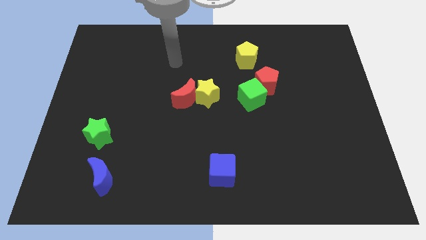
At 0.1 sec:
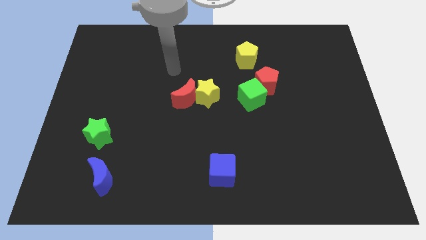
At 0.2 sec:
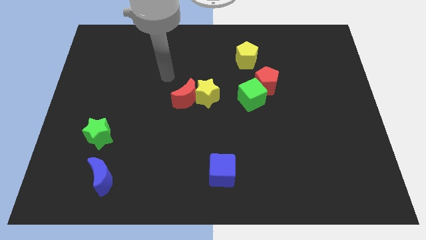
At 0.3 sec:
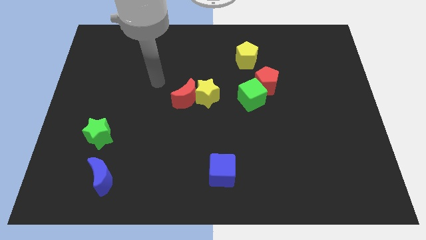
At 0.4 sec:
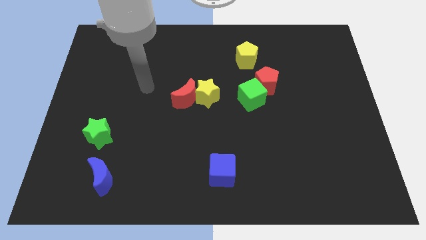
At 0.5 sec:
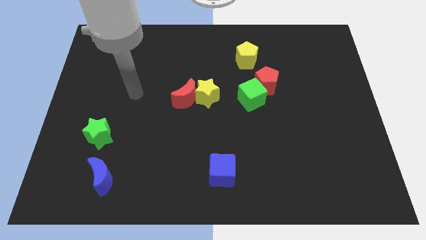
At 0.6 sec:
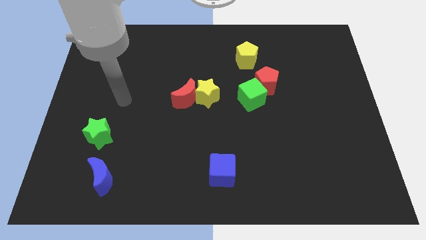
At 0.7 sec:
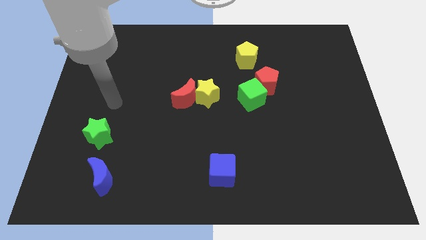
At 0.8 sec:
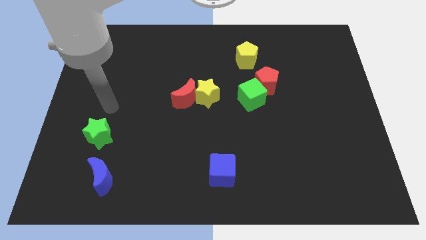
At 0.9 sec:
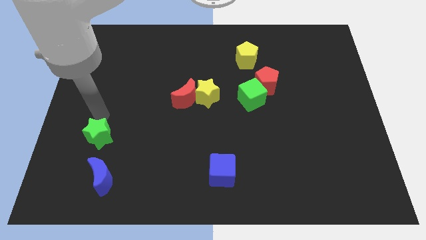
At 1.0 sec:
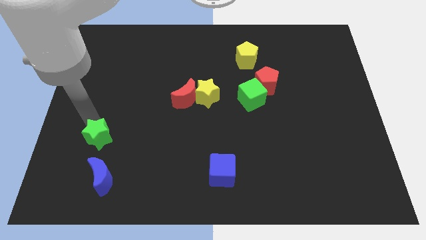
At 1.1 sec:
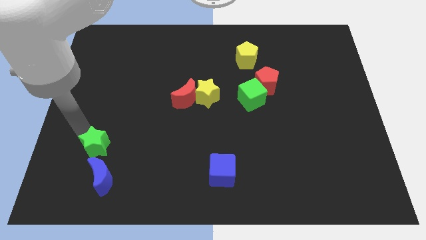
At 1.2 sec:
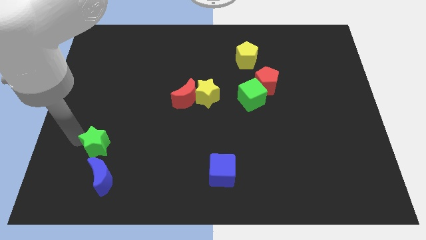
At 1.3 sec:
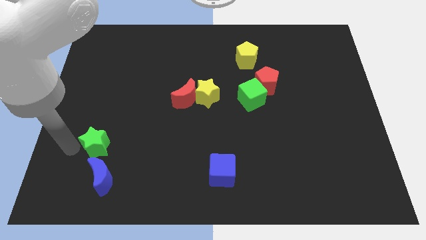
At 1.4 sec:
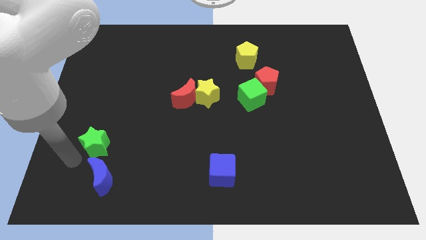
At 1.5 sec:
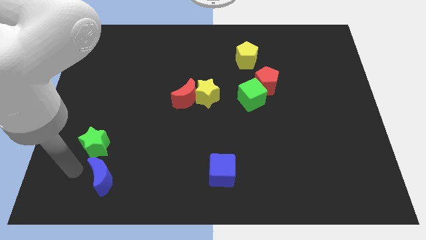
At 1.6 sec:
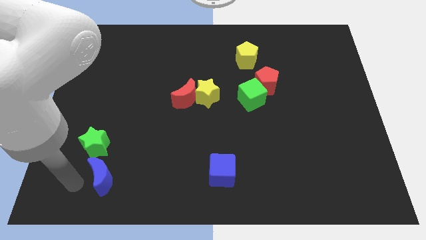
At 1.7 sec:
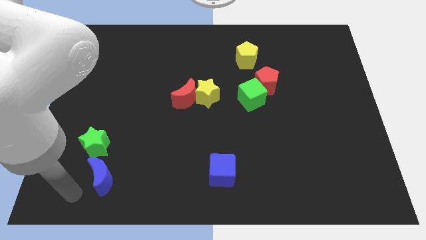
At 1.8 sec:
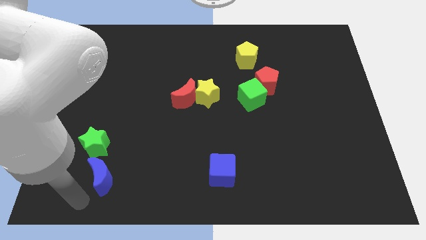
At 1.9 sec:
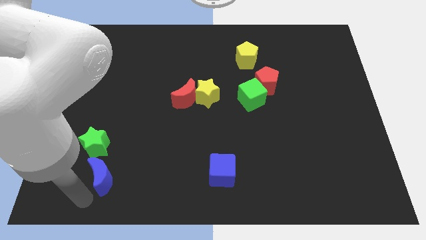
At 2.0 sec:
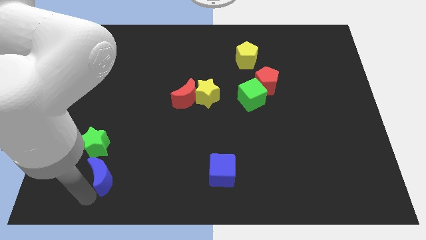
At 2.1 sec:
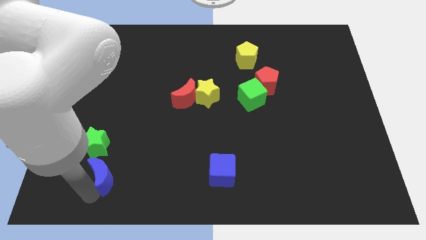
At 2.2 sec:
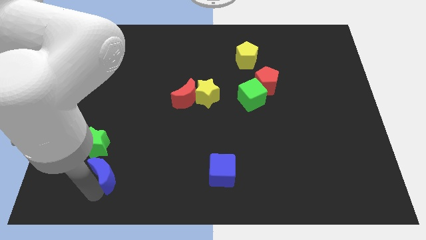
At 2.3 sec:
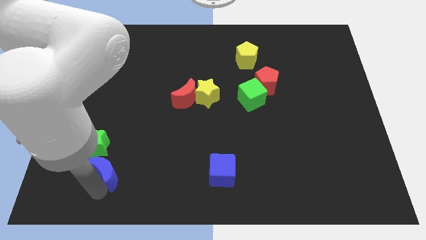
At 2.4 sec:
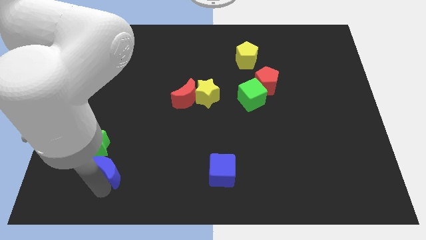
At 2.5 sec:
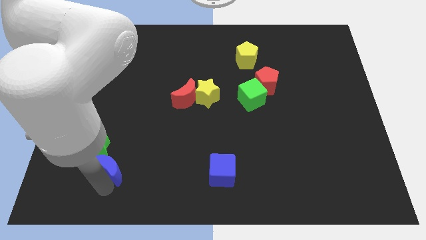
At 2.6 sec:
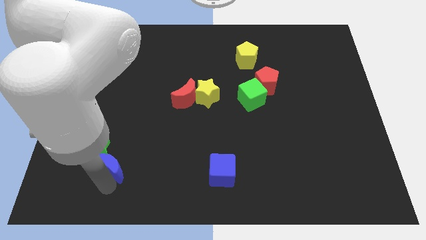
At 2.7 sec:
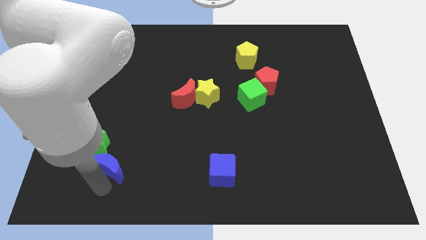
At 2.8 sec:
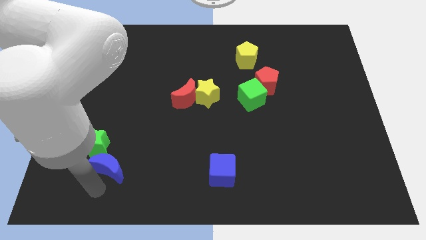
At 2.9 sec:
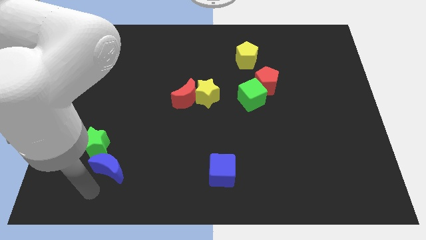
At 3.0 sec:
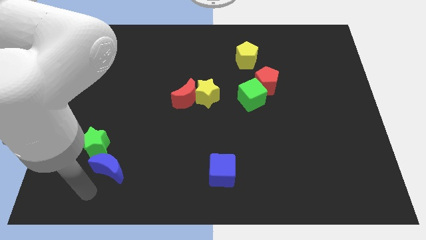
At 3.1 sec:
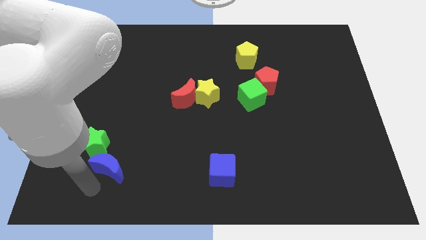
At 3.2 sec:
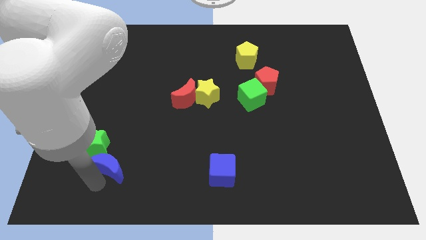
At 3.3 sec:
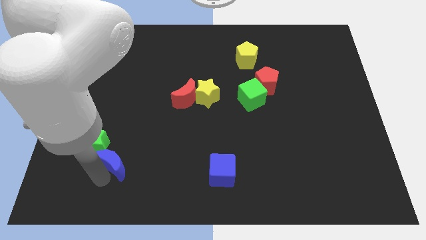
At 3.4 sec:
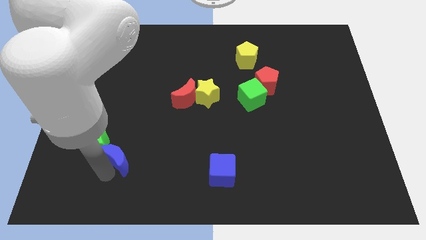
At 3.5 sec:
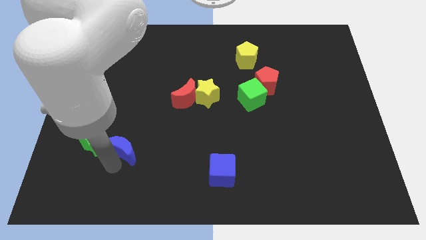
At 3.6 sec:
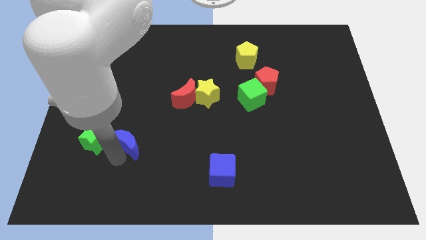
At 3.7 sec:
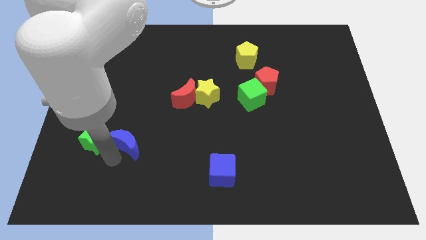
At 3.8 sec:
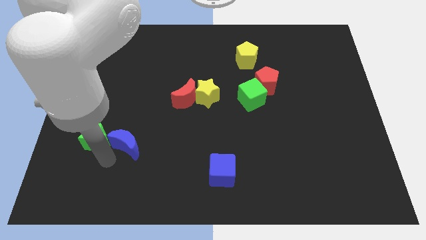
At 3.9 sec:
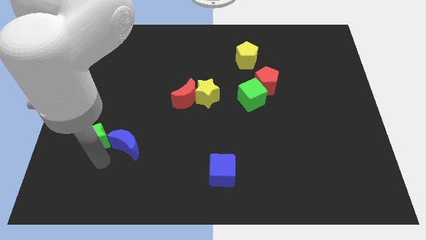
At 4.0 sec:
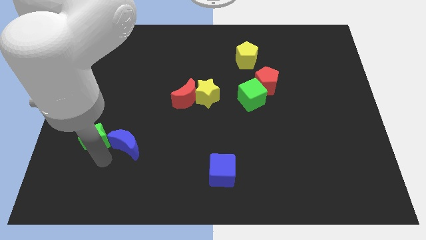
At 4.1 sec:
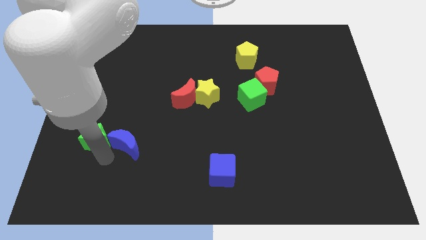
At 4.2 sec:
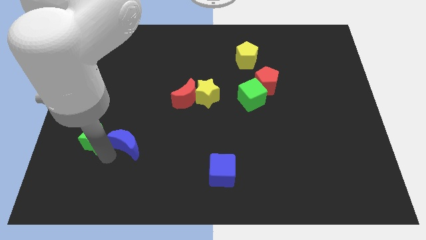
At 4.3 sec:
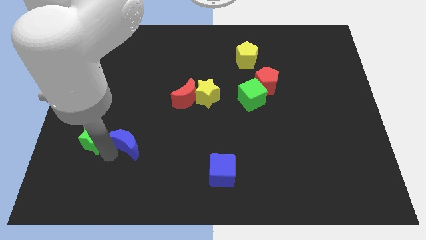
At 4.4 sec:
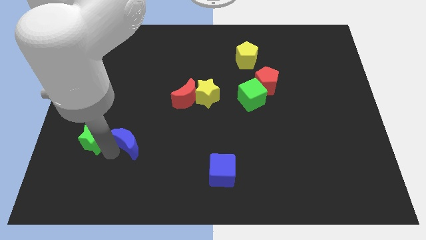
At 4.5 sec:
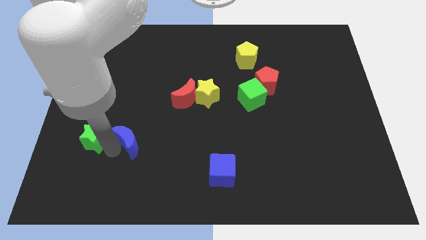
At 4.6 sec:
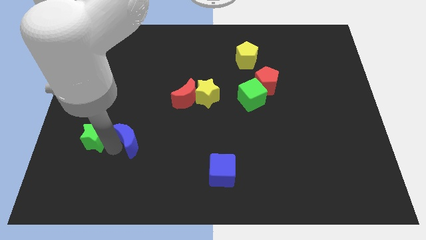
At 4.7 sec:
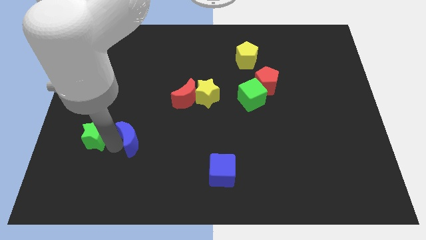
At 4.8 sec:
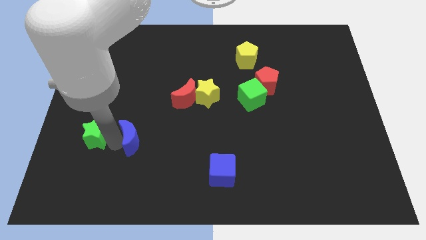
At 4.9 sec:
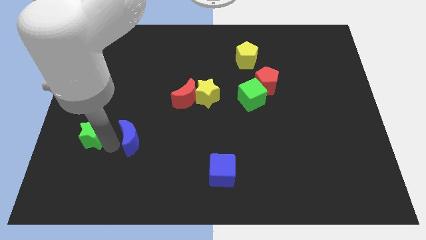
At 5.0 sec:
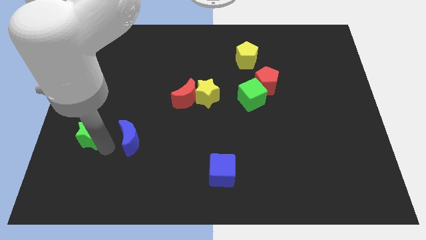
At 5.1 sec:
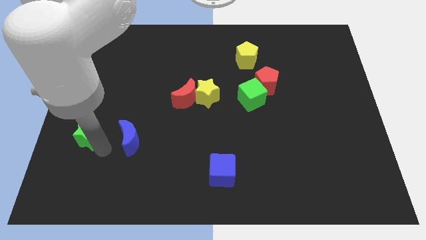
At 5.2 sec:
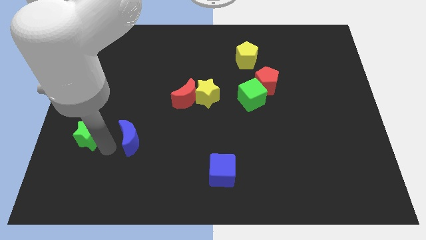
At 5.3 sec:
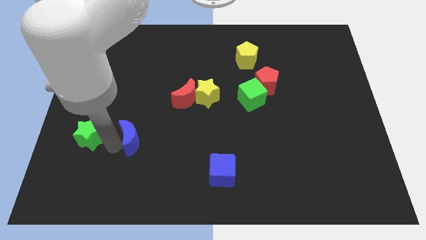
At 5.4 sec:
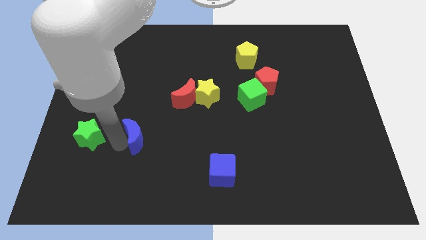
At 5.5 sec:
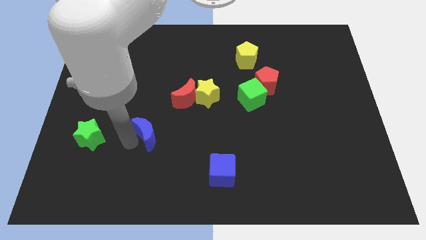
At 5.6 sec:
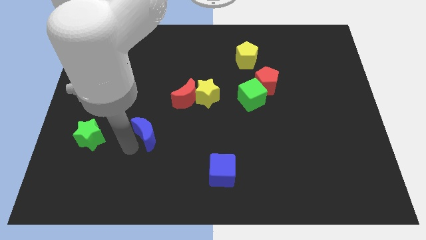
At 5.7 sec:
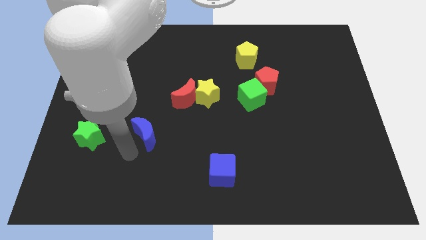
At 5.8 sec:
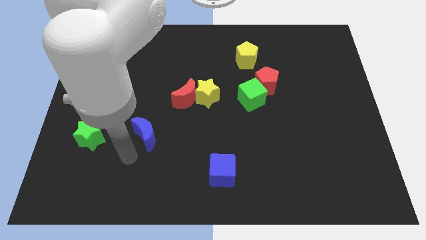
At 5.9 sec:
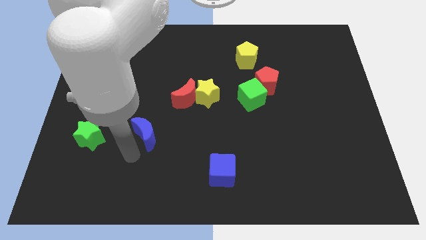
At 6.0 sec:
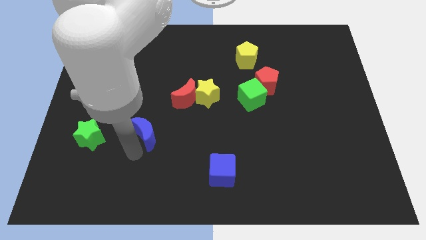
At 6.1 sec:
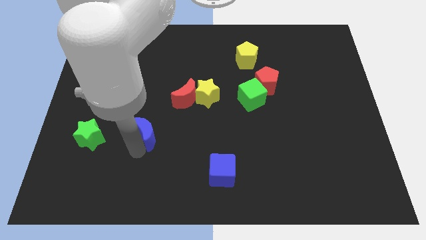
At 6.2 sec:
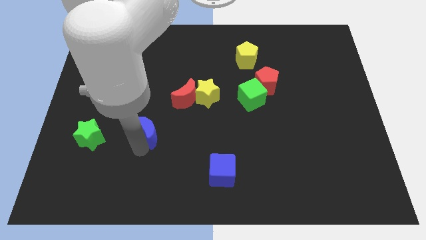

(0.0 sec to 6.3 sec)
slide the blue moon to the bottom left of the red moon

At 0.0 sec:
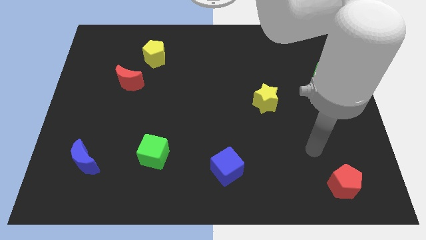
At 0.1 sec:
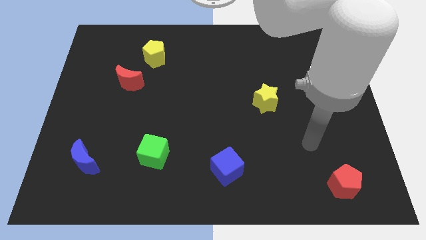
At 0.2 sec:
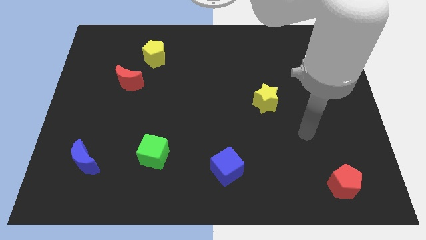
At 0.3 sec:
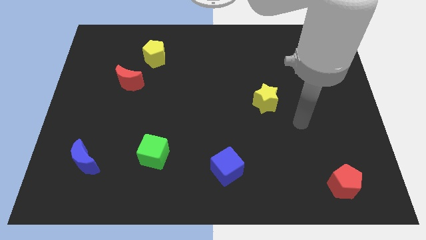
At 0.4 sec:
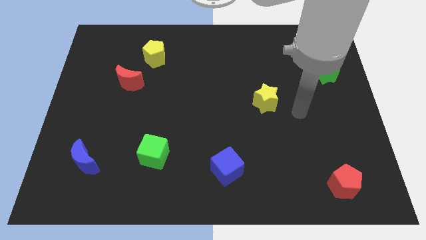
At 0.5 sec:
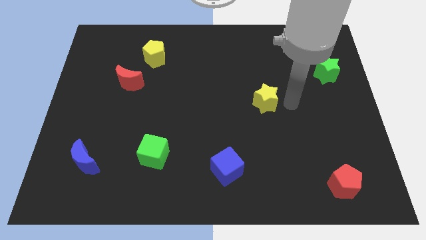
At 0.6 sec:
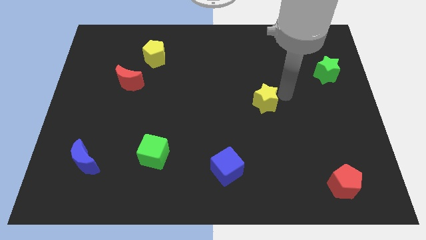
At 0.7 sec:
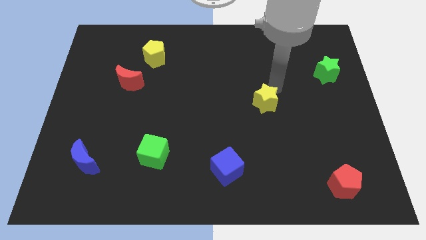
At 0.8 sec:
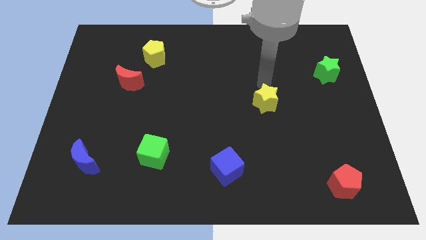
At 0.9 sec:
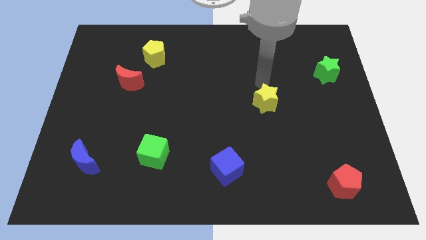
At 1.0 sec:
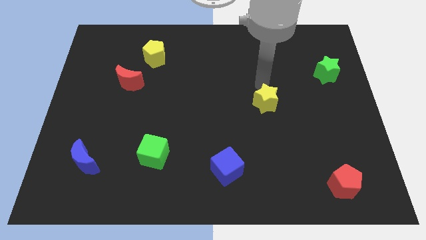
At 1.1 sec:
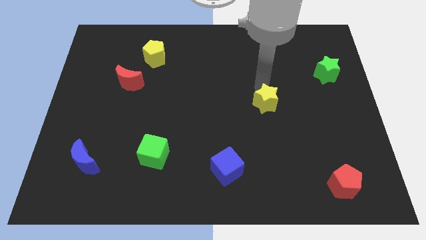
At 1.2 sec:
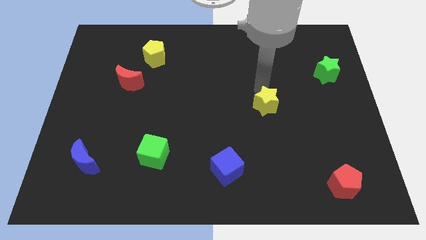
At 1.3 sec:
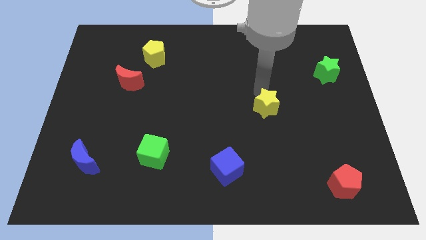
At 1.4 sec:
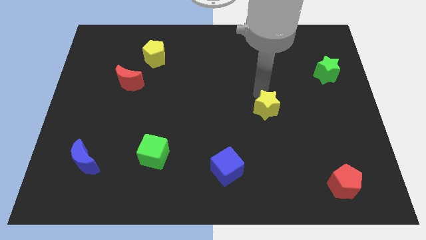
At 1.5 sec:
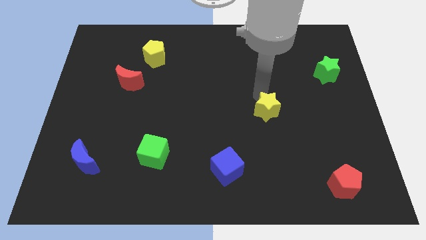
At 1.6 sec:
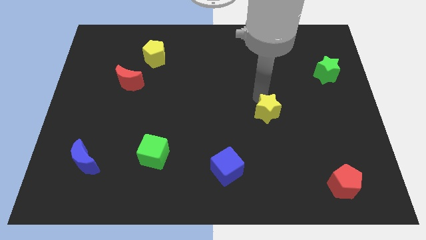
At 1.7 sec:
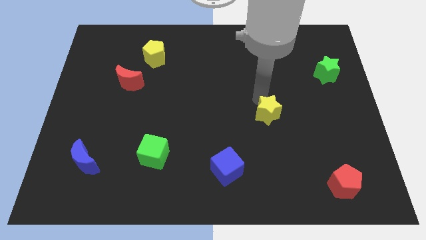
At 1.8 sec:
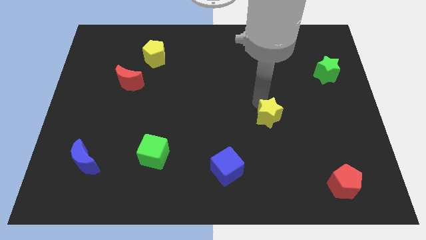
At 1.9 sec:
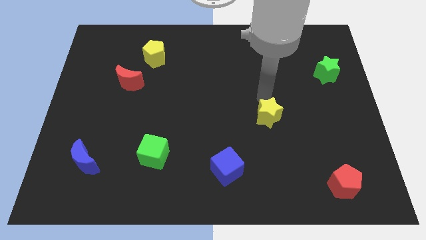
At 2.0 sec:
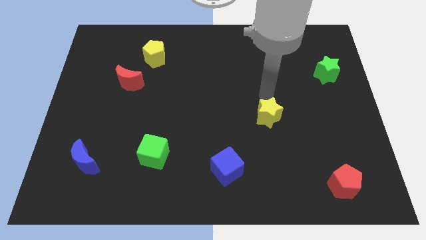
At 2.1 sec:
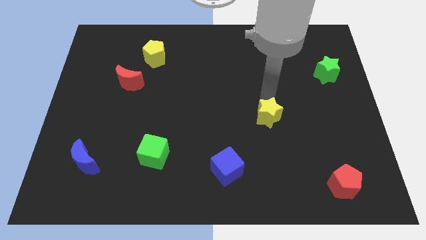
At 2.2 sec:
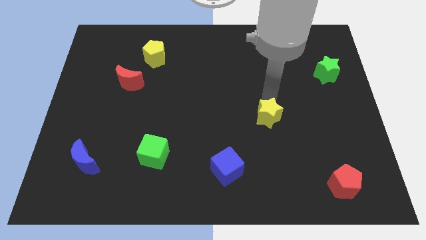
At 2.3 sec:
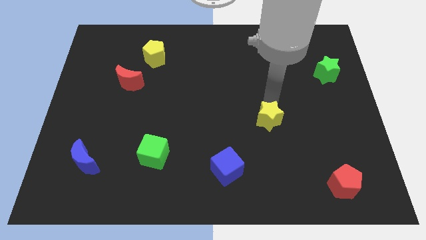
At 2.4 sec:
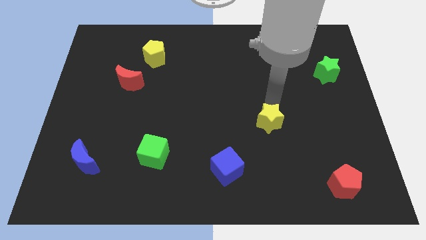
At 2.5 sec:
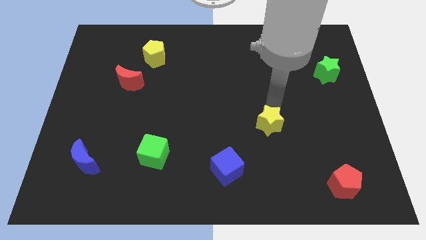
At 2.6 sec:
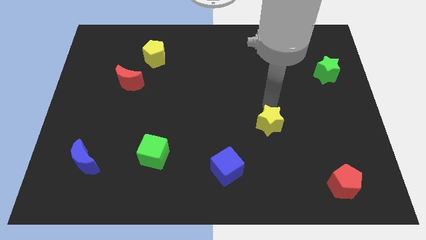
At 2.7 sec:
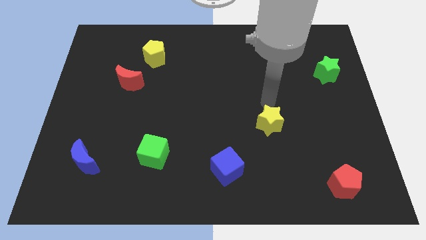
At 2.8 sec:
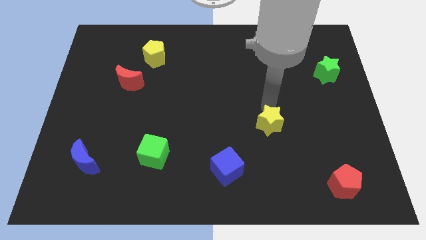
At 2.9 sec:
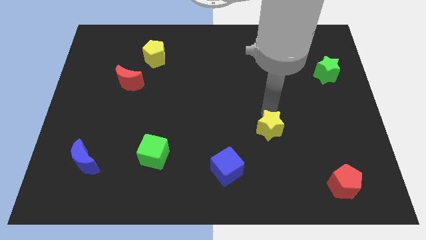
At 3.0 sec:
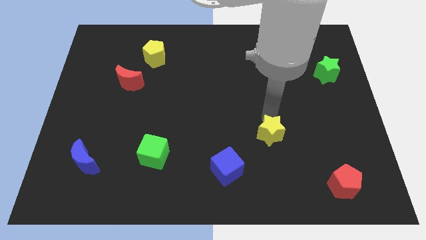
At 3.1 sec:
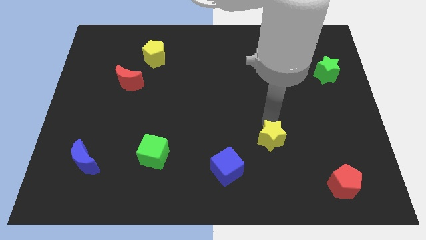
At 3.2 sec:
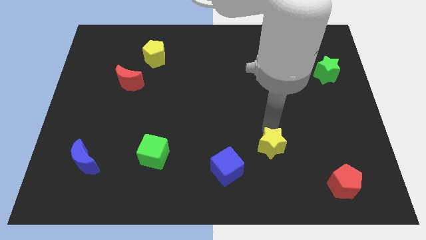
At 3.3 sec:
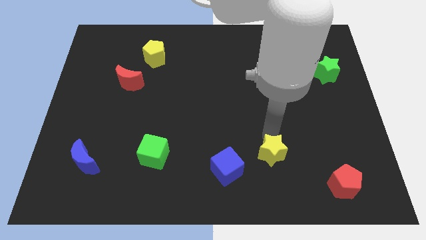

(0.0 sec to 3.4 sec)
move the yellow star to the right of the blue cube
